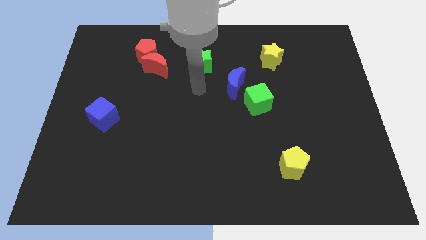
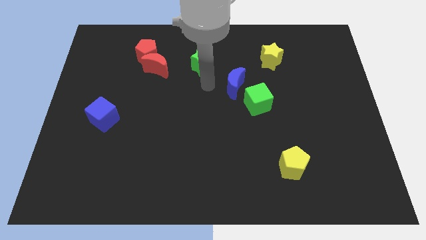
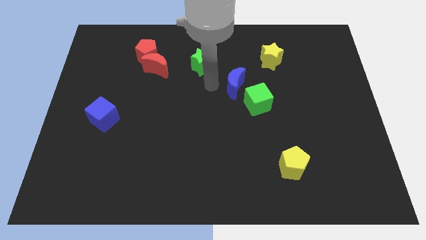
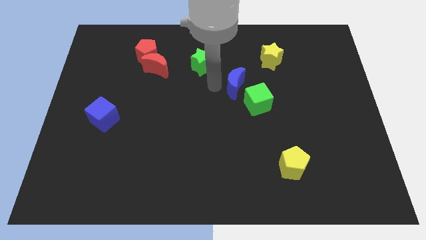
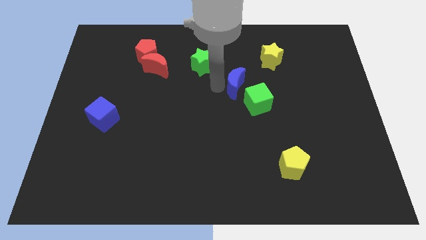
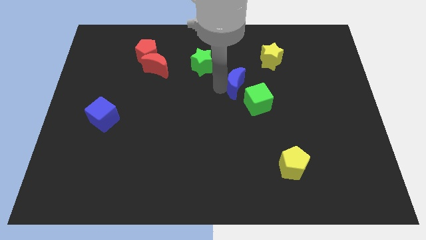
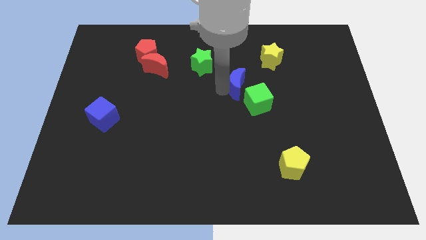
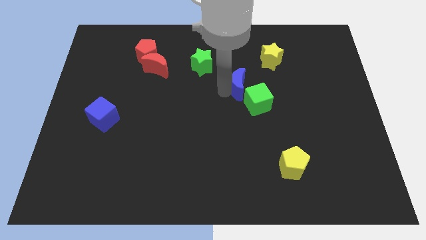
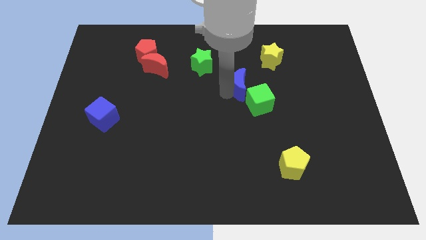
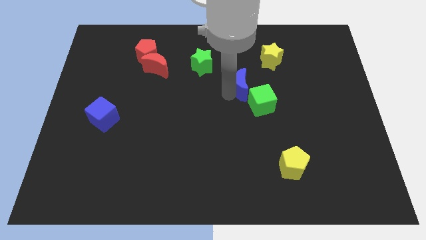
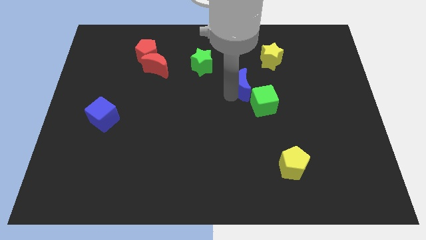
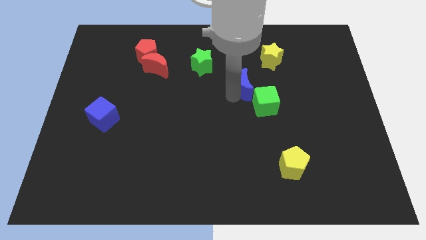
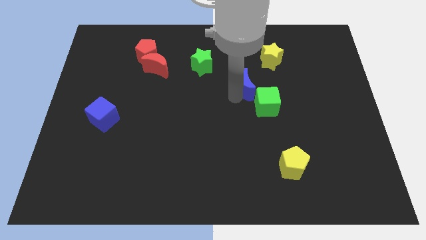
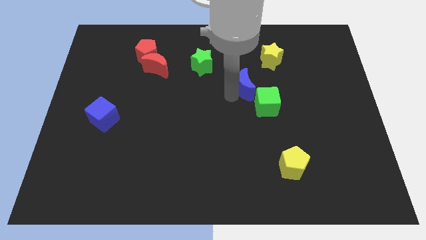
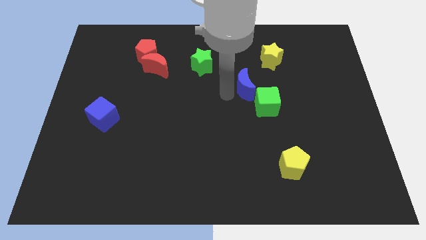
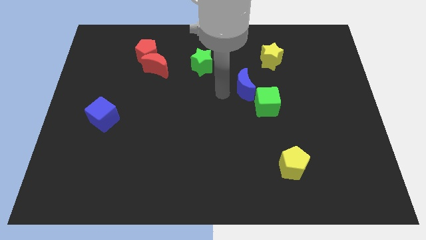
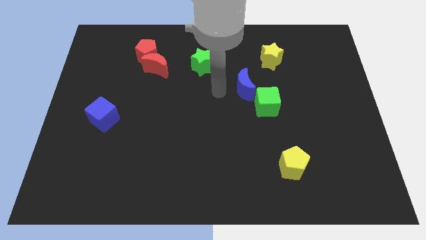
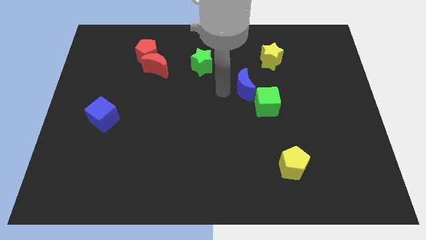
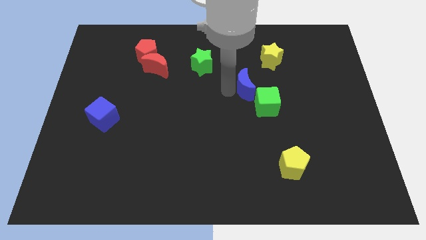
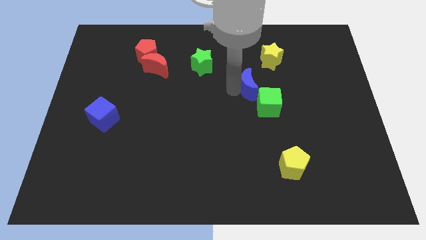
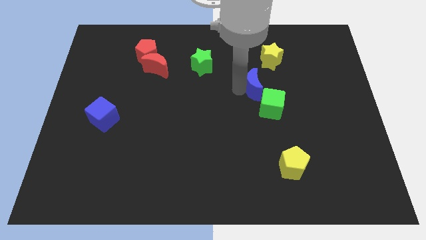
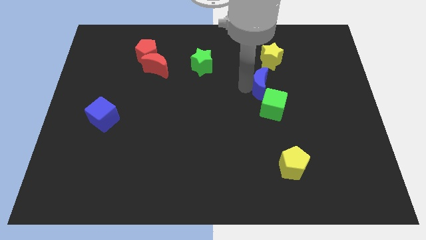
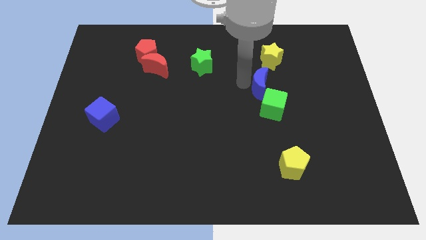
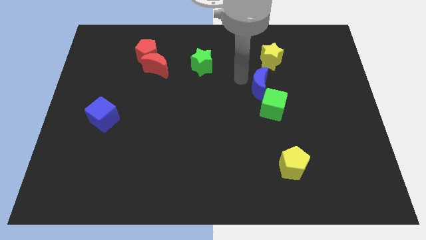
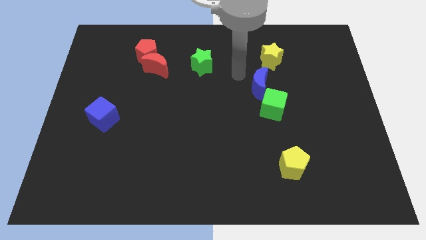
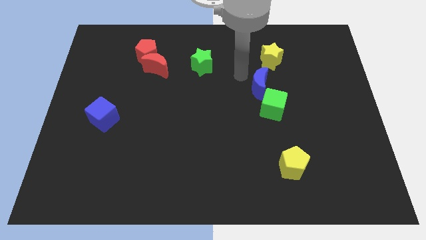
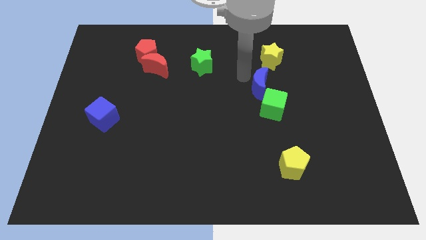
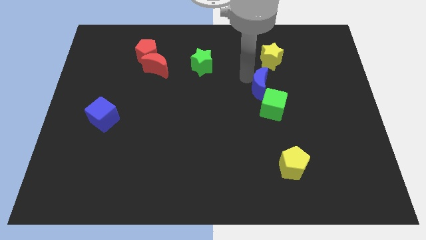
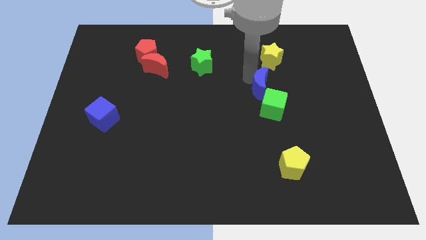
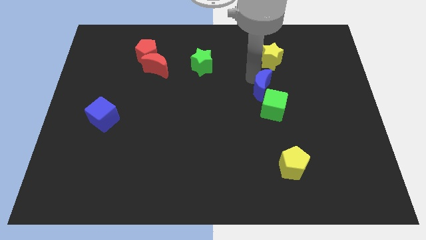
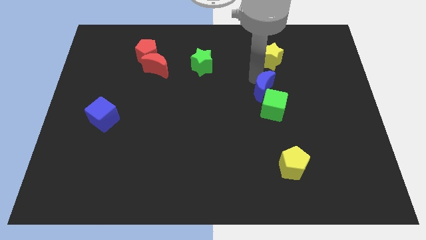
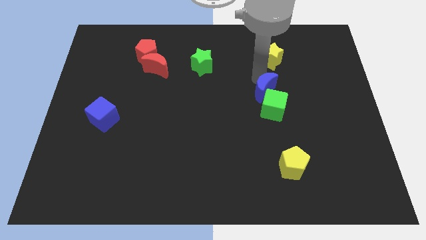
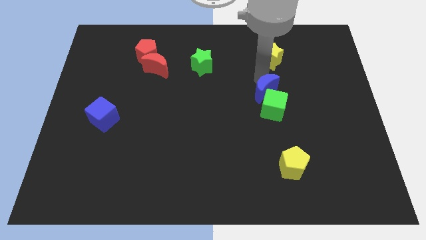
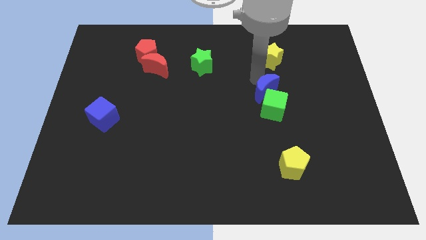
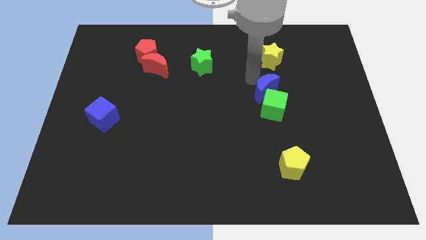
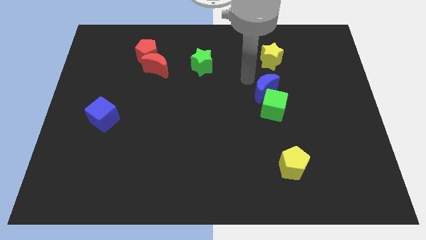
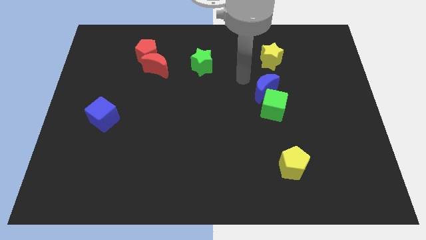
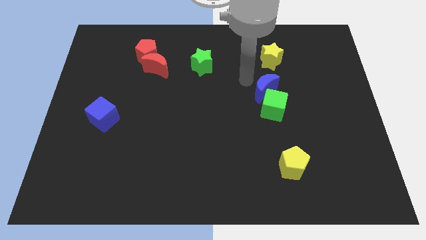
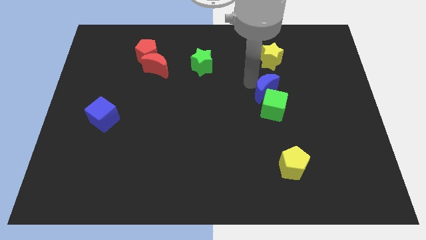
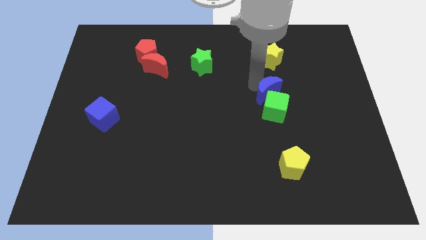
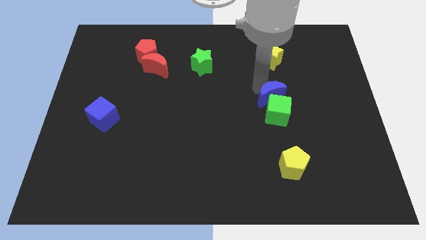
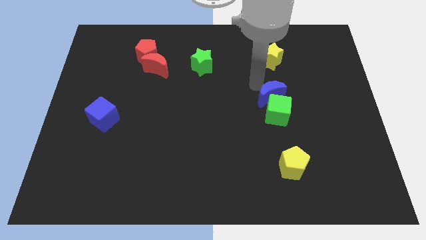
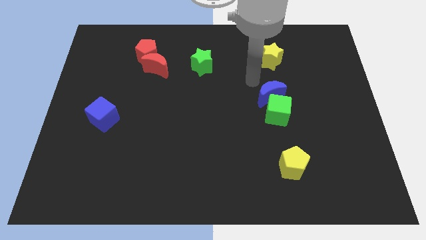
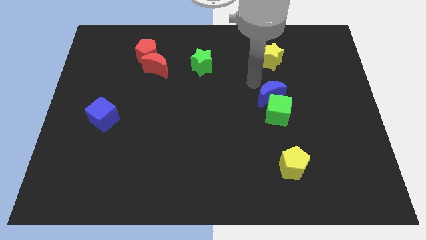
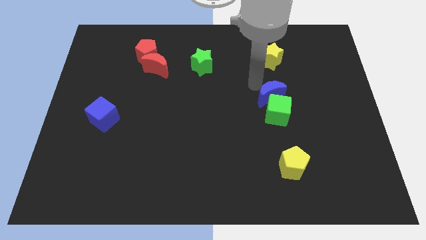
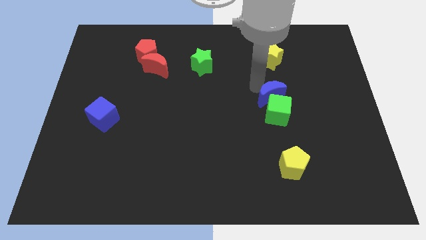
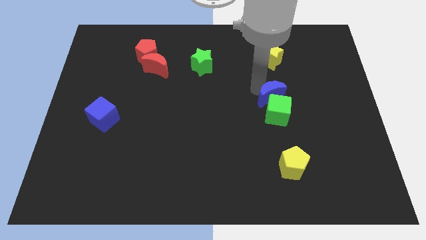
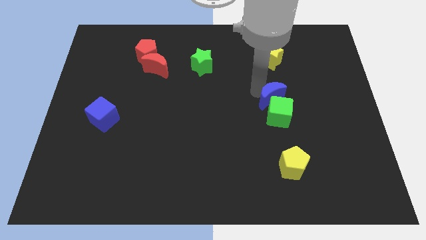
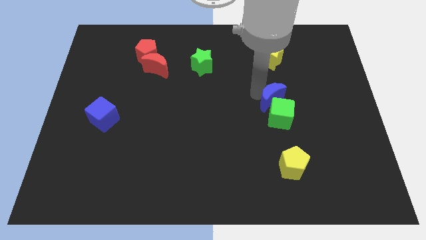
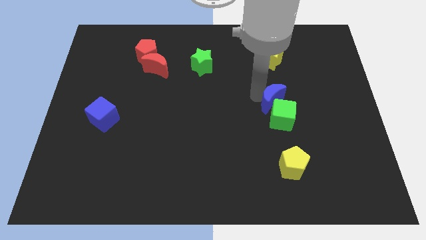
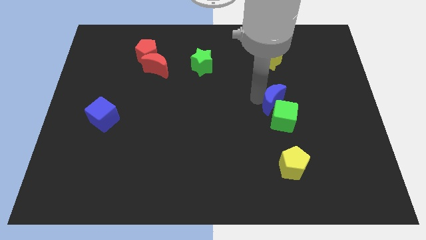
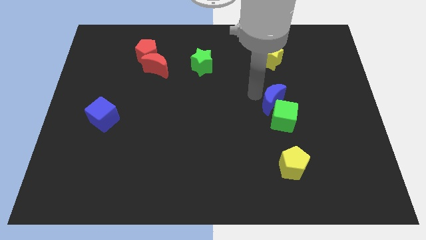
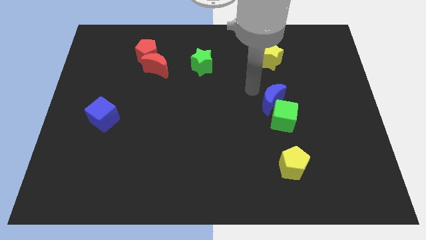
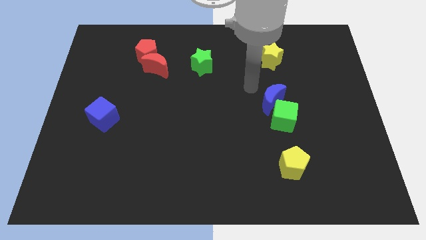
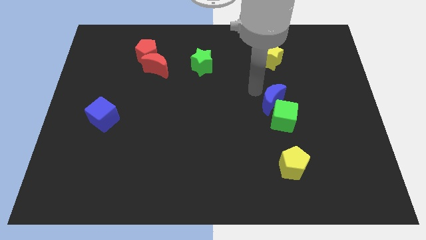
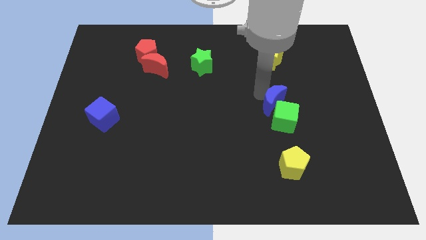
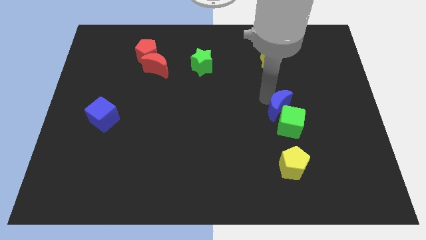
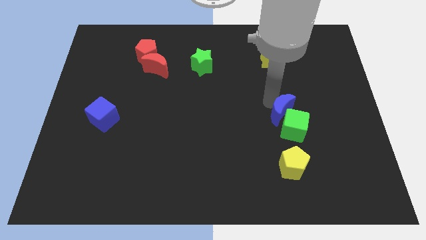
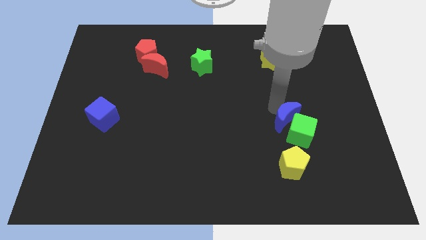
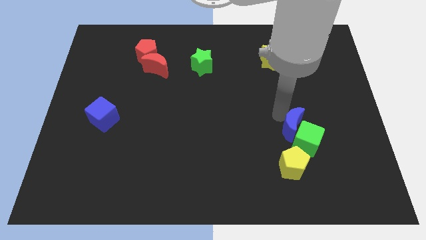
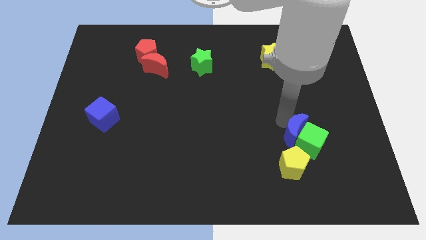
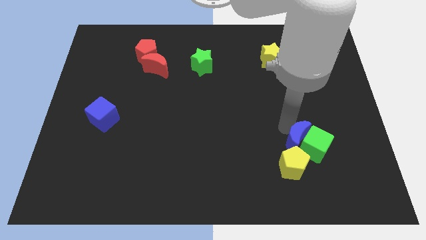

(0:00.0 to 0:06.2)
push the blue moon downwards and then right

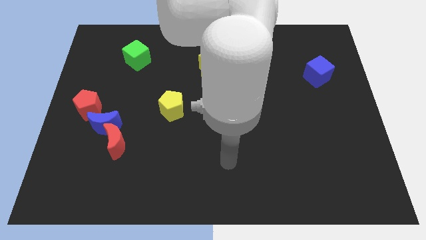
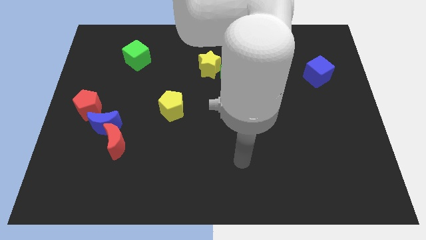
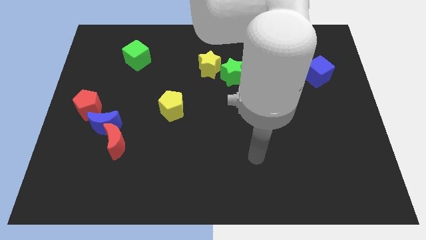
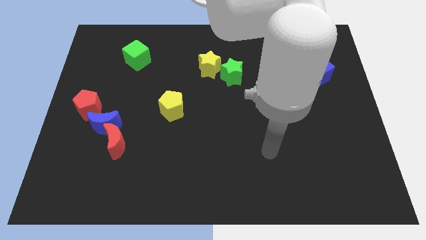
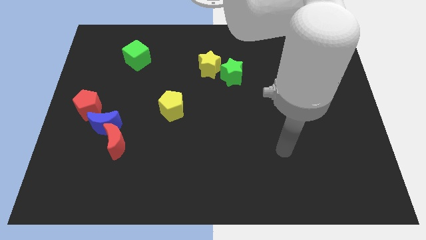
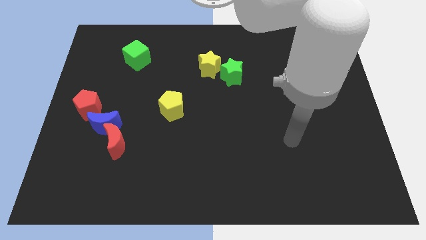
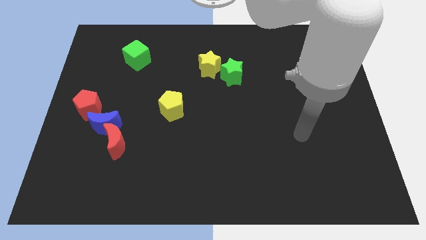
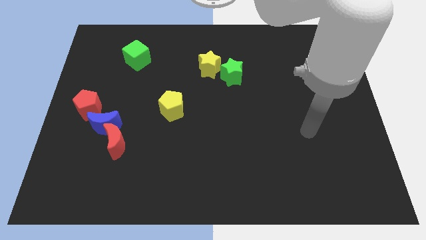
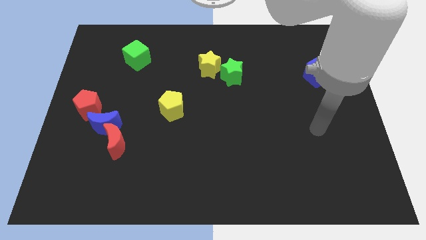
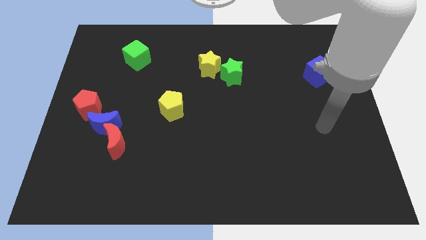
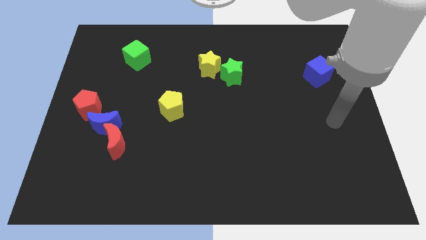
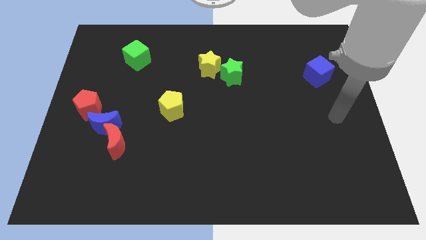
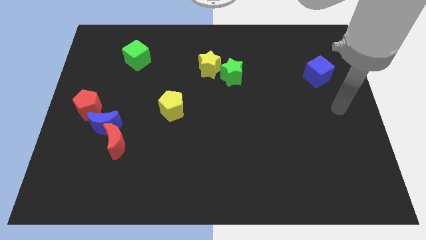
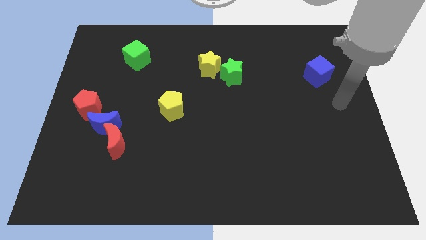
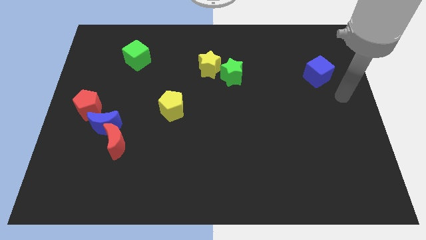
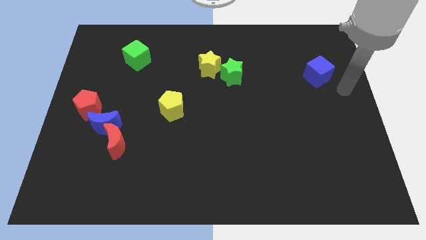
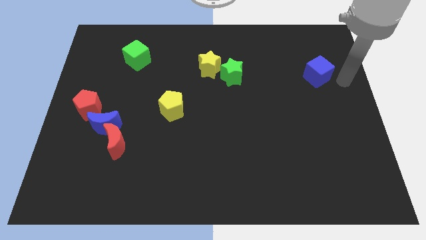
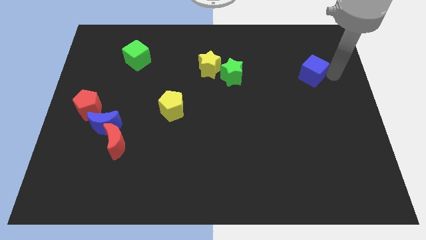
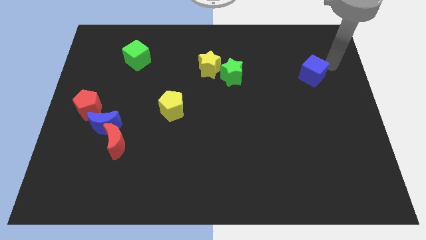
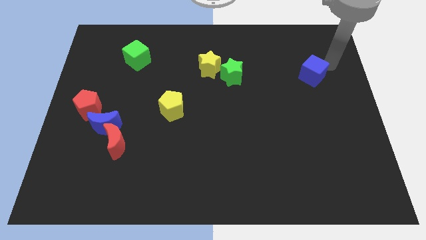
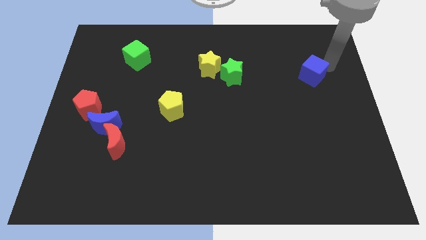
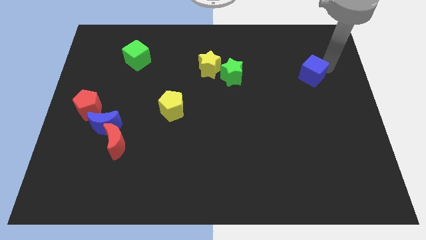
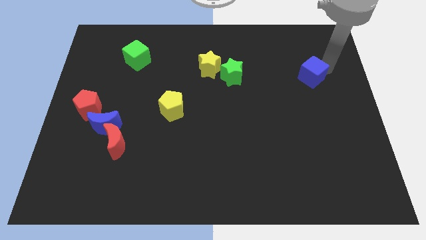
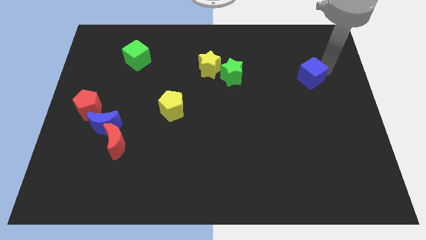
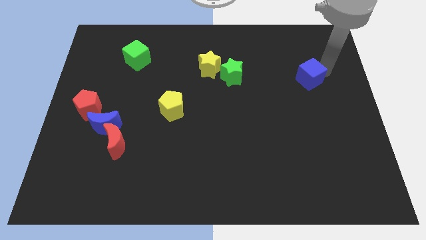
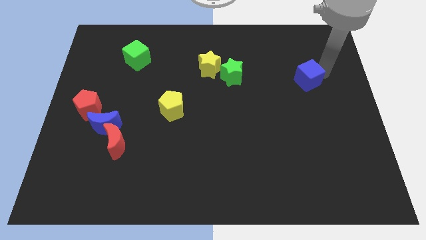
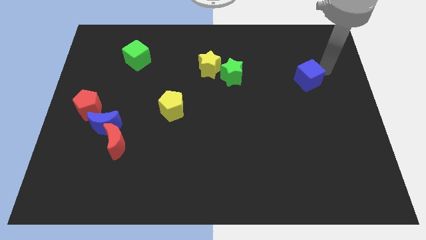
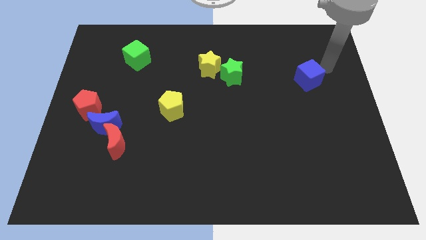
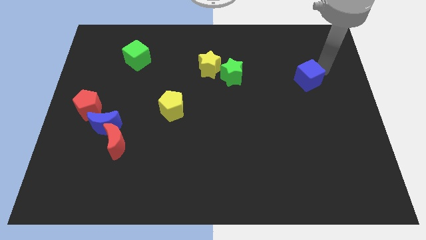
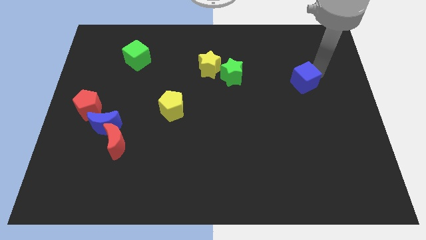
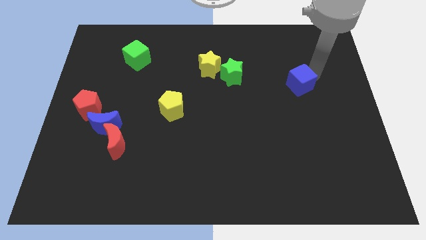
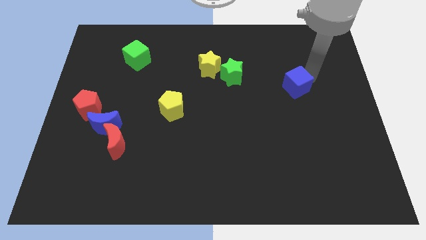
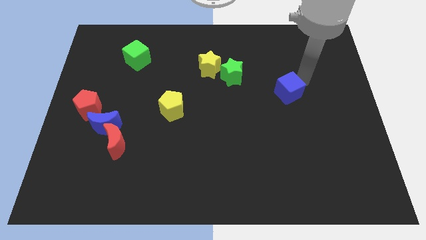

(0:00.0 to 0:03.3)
slightly move the blue cube diagonally down and left
